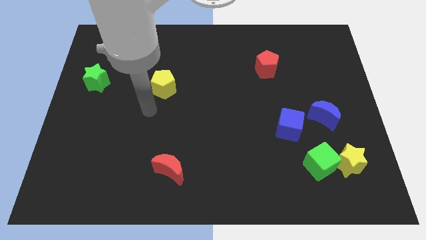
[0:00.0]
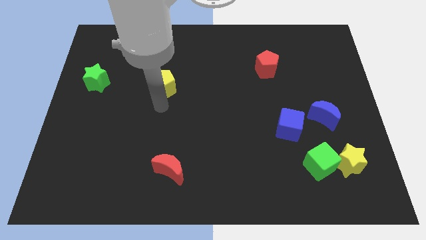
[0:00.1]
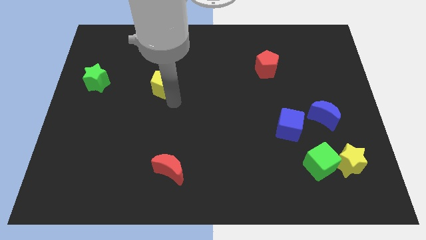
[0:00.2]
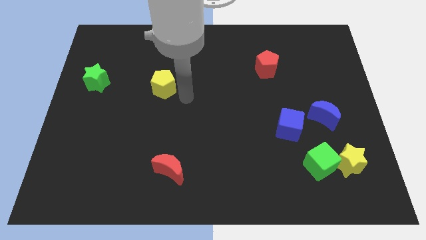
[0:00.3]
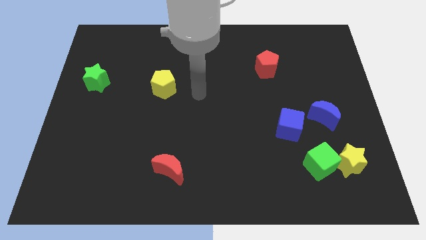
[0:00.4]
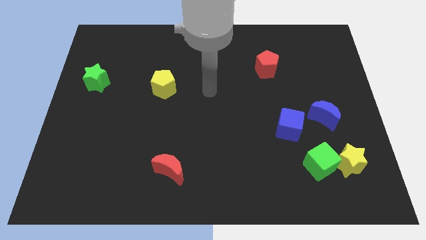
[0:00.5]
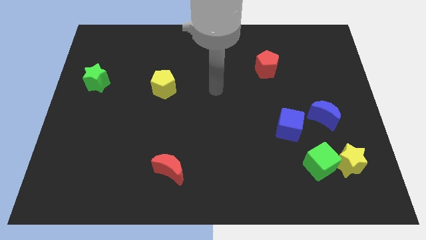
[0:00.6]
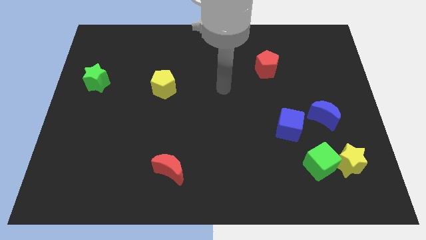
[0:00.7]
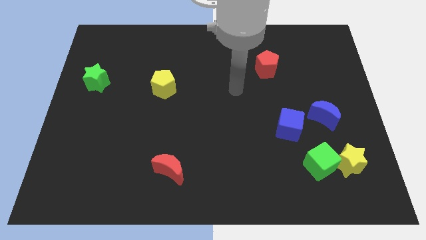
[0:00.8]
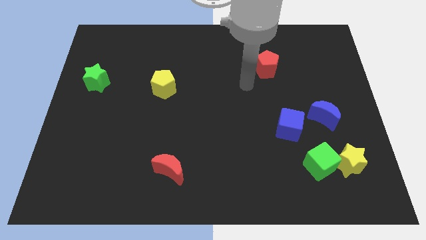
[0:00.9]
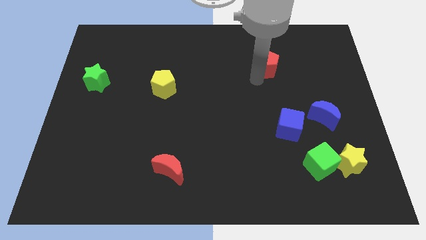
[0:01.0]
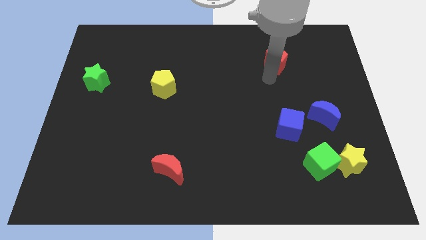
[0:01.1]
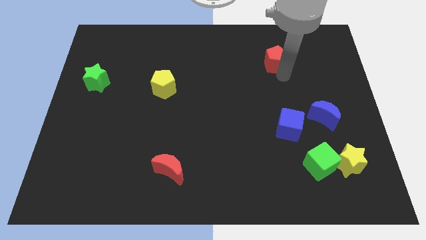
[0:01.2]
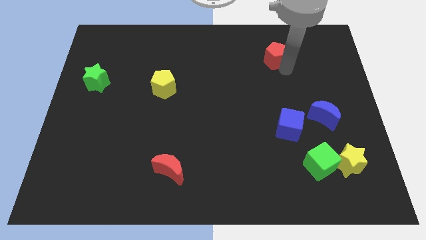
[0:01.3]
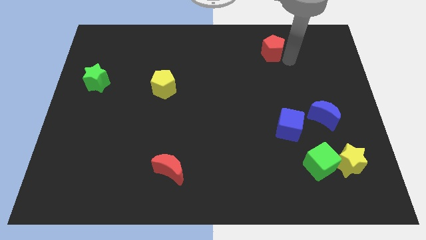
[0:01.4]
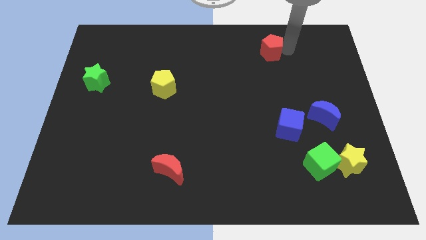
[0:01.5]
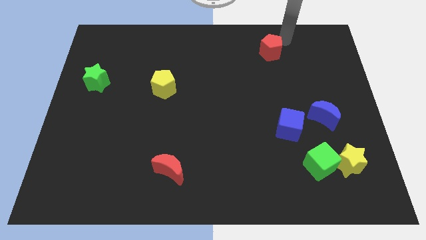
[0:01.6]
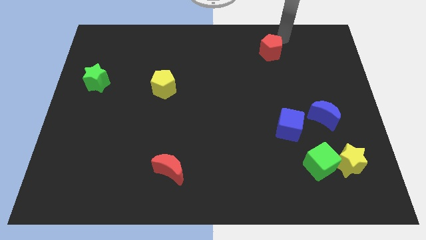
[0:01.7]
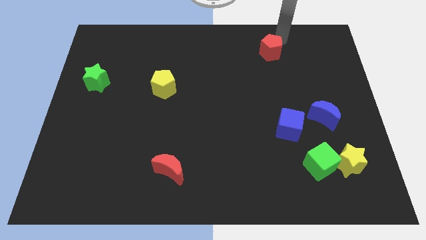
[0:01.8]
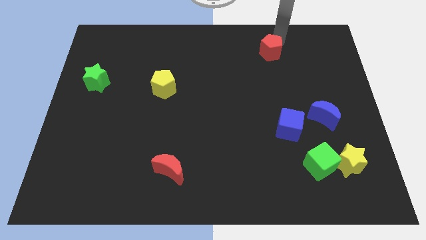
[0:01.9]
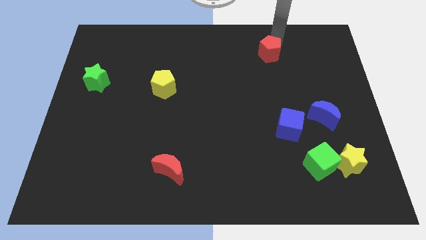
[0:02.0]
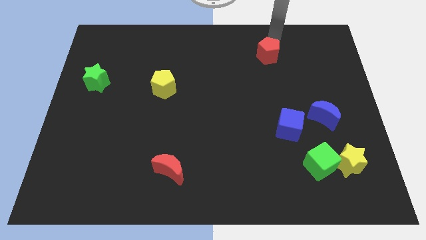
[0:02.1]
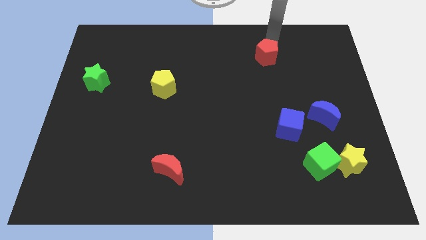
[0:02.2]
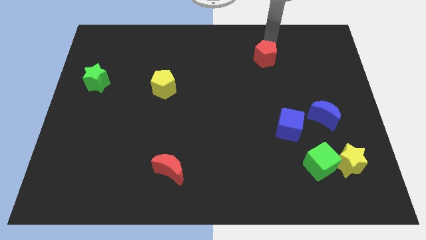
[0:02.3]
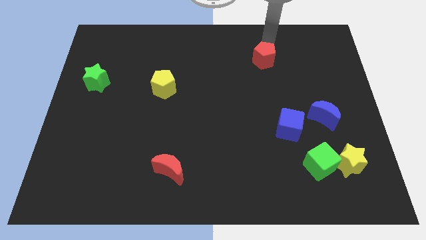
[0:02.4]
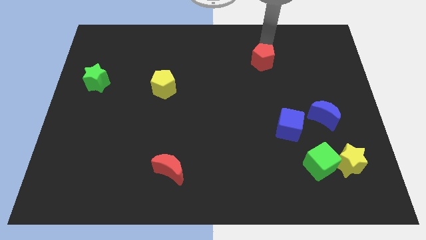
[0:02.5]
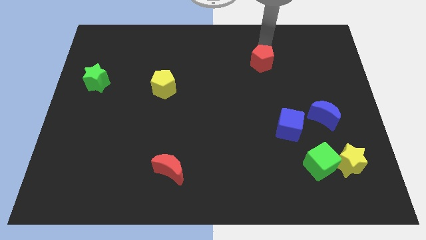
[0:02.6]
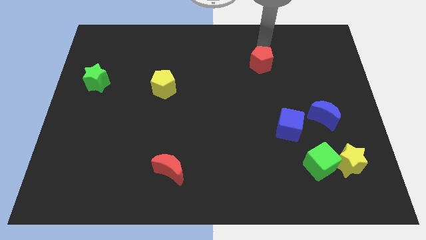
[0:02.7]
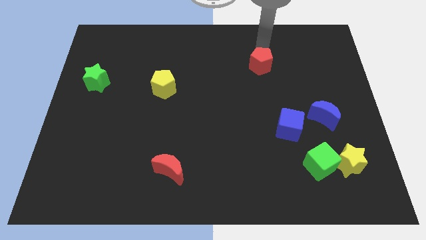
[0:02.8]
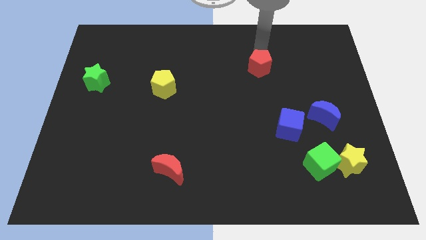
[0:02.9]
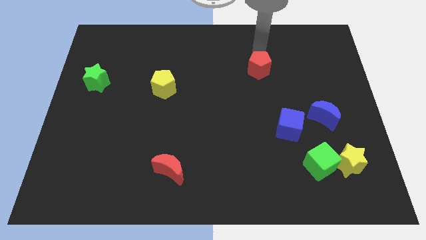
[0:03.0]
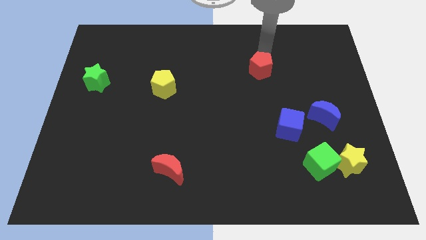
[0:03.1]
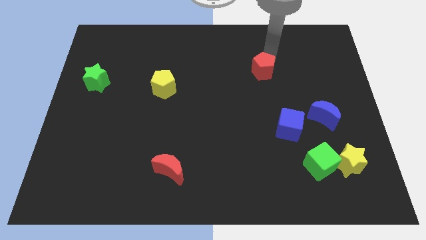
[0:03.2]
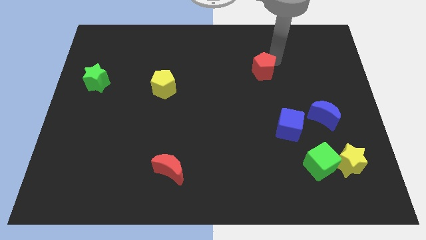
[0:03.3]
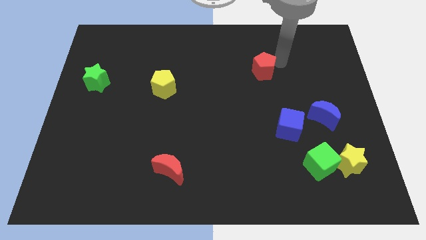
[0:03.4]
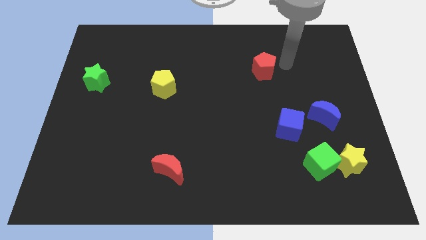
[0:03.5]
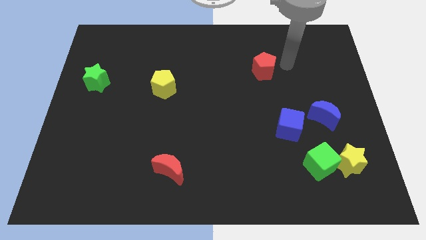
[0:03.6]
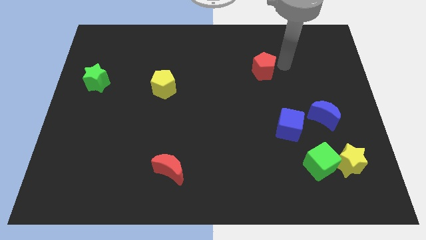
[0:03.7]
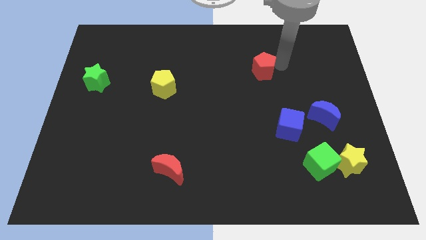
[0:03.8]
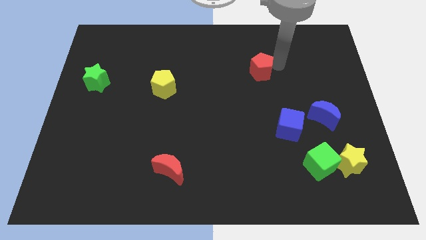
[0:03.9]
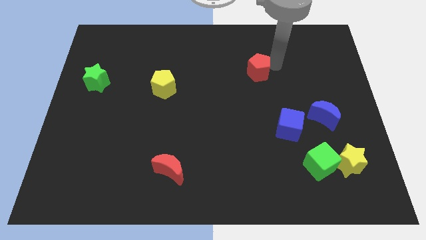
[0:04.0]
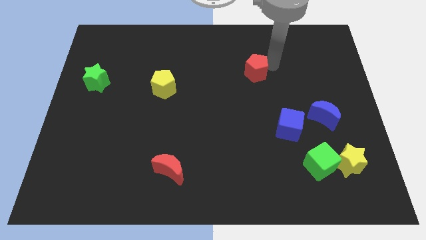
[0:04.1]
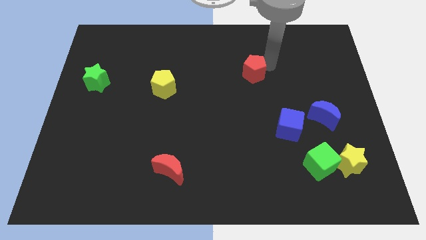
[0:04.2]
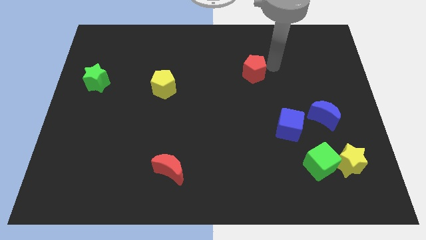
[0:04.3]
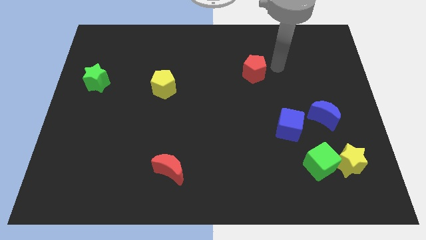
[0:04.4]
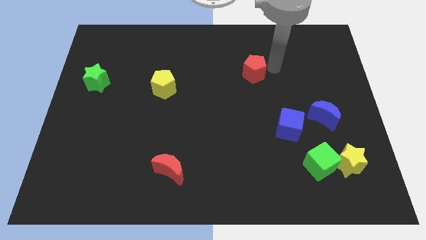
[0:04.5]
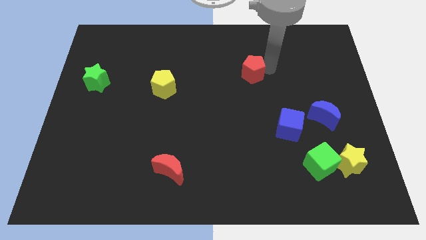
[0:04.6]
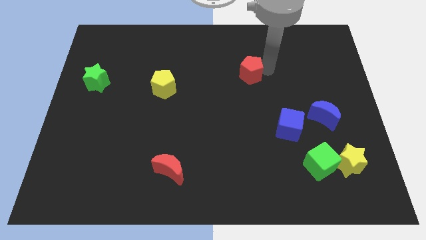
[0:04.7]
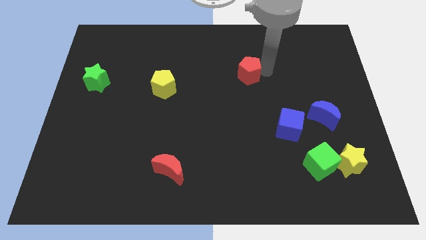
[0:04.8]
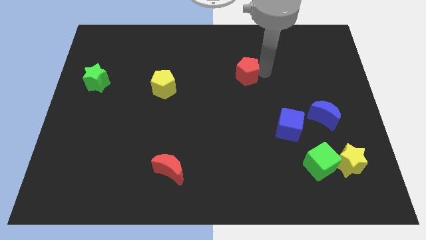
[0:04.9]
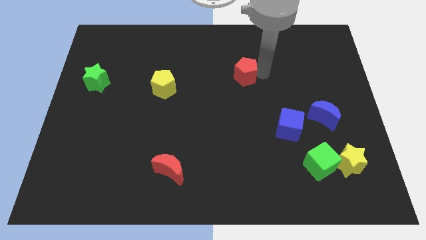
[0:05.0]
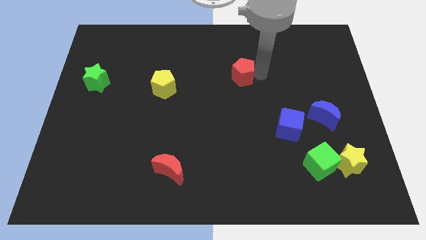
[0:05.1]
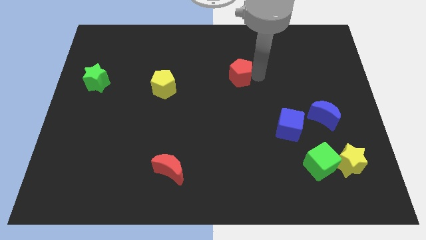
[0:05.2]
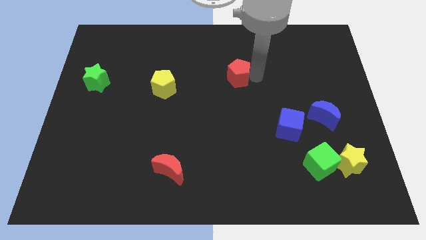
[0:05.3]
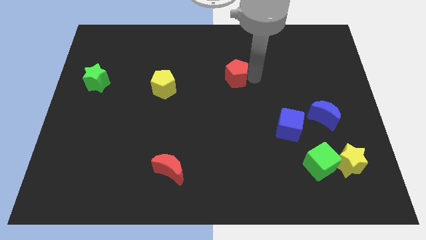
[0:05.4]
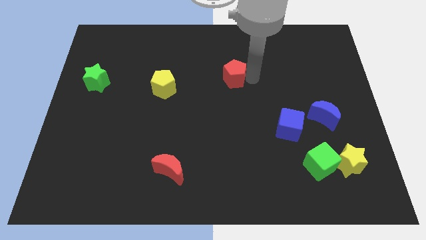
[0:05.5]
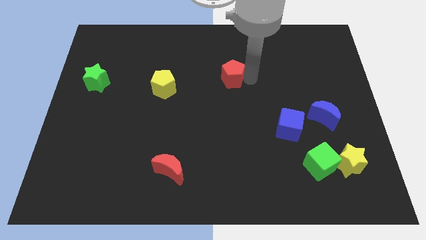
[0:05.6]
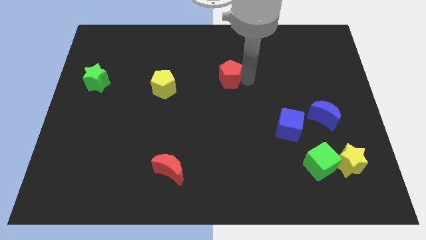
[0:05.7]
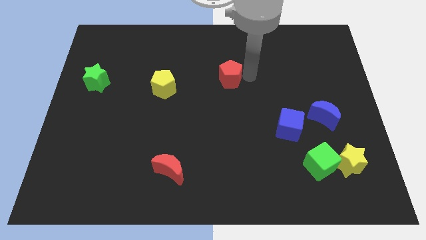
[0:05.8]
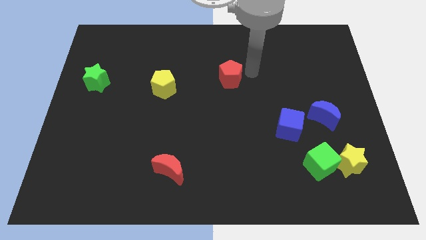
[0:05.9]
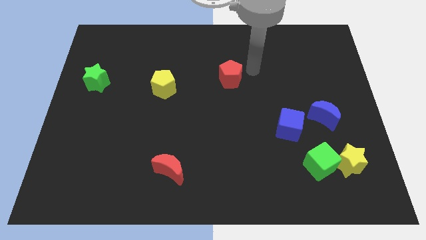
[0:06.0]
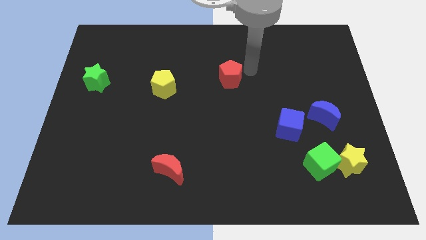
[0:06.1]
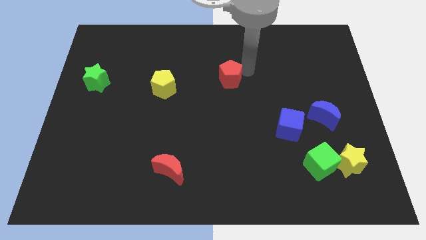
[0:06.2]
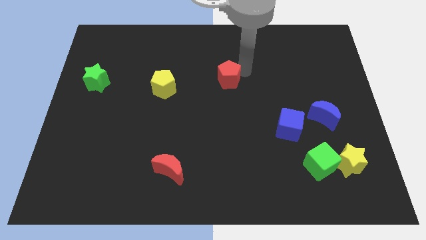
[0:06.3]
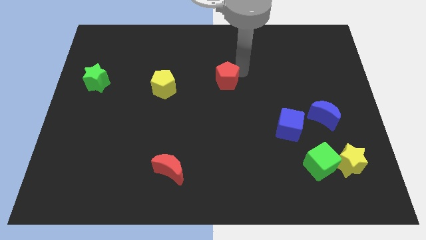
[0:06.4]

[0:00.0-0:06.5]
put the red pentagon right of the yellow pentagon
